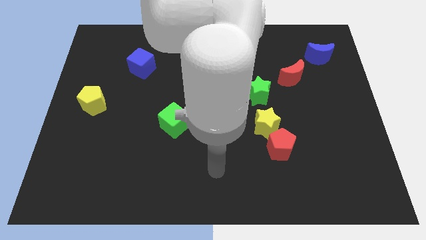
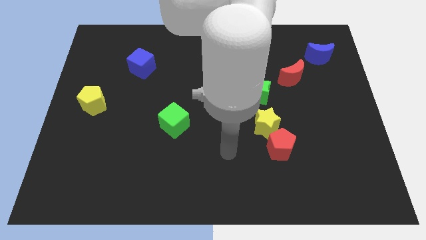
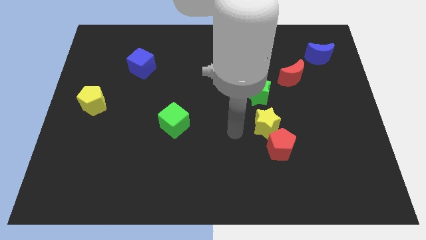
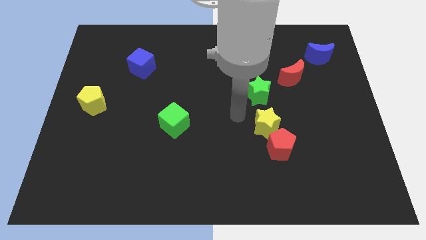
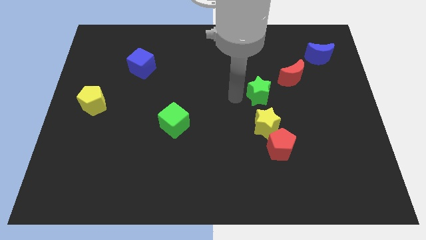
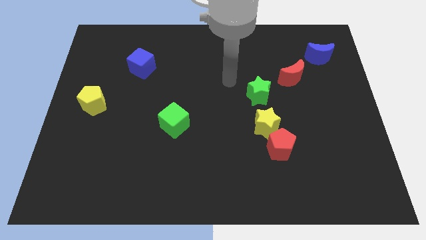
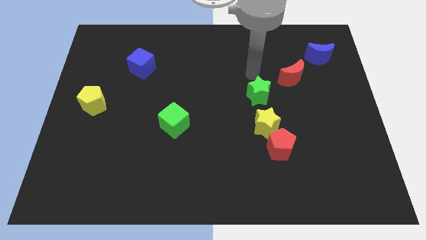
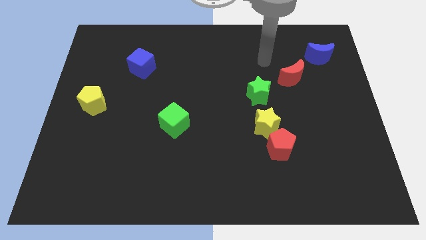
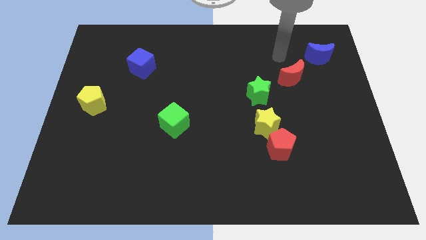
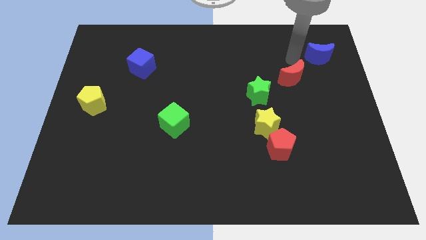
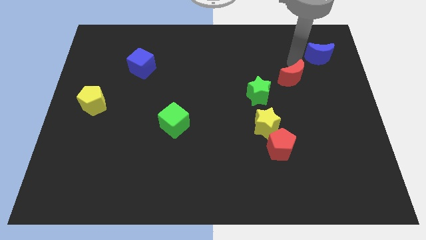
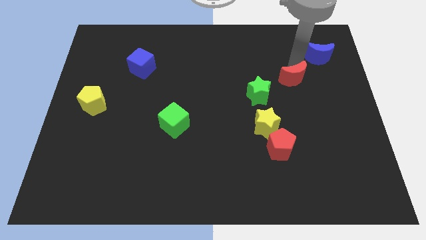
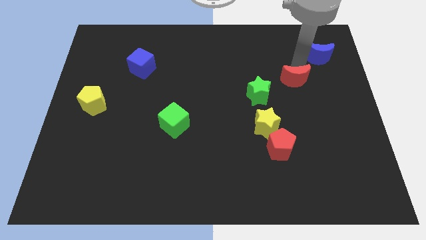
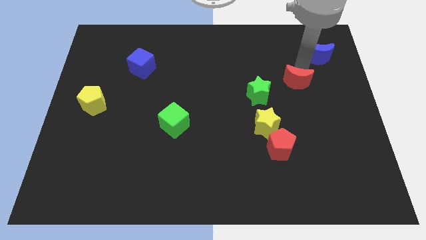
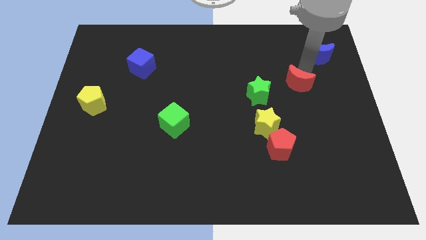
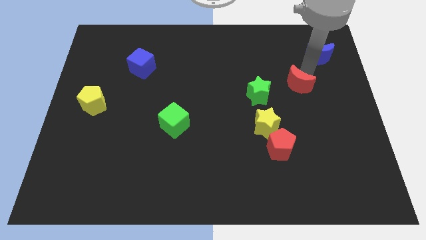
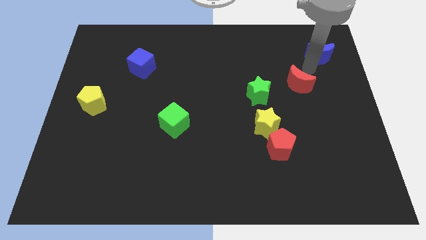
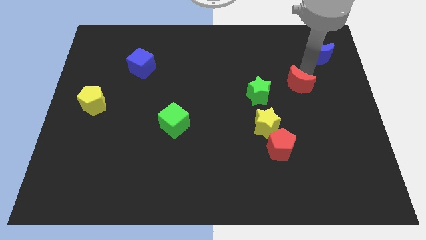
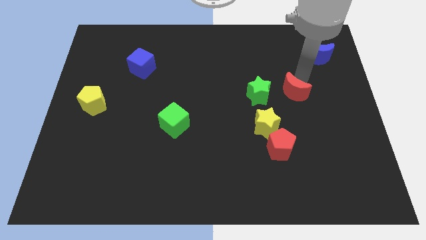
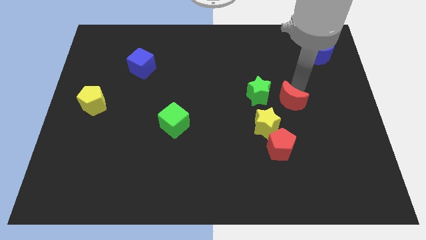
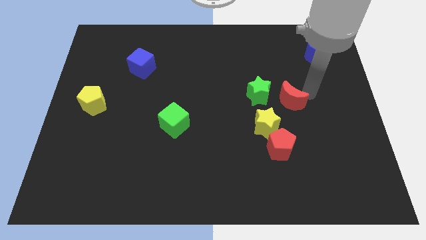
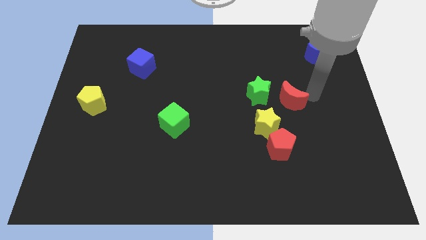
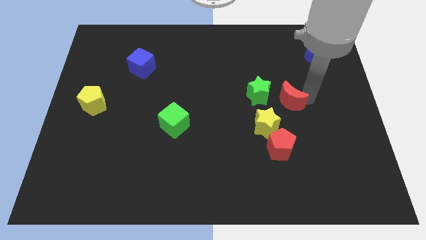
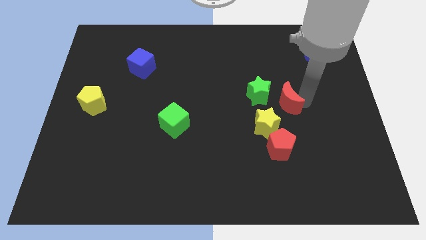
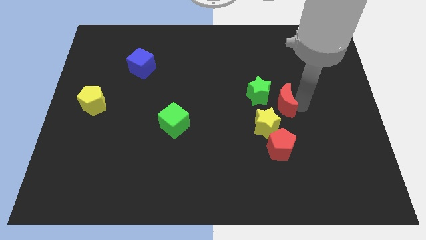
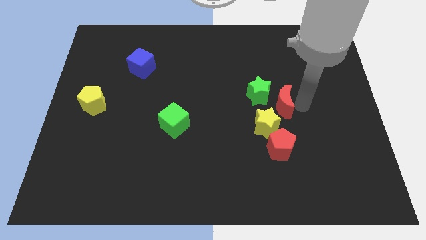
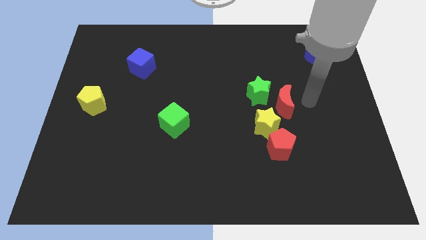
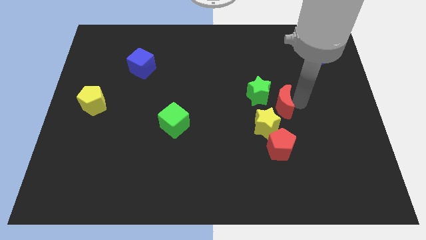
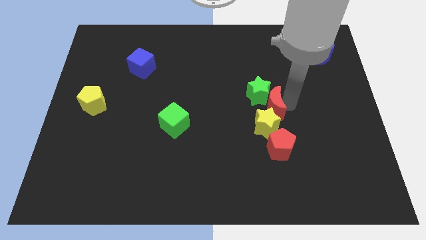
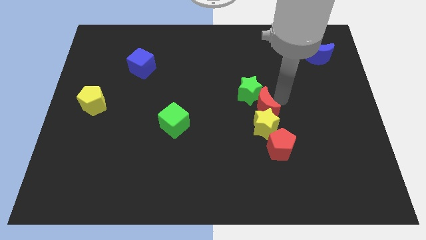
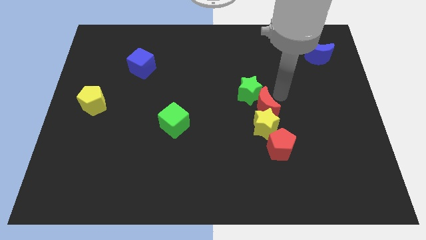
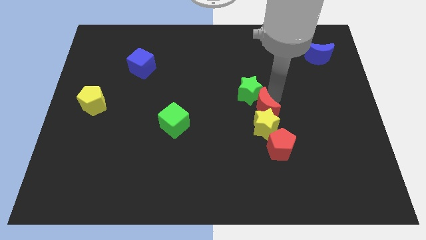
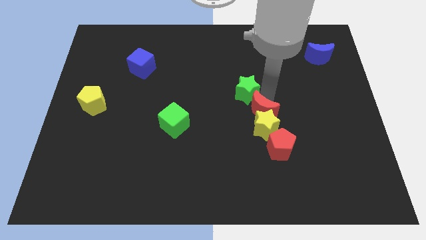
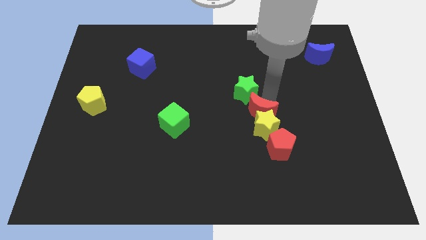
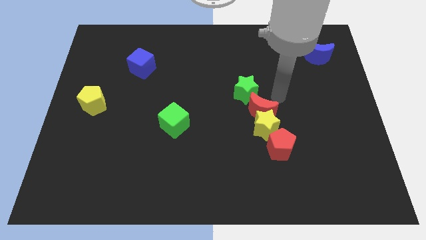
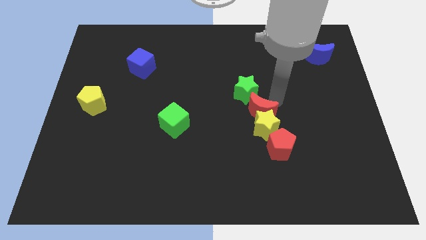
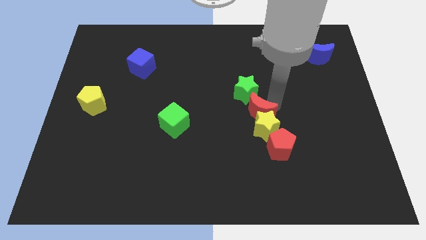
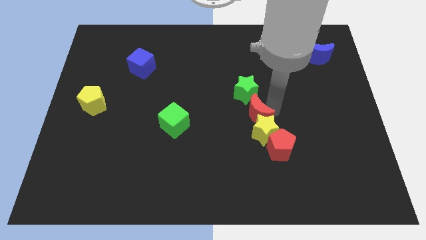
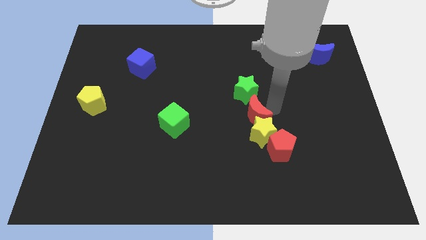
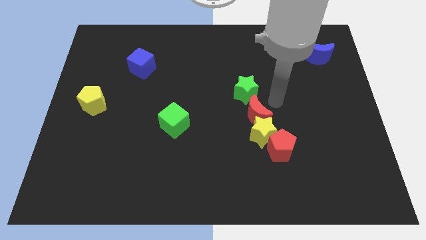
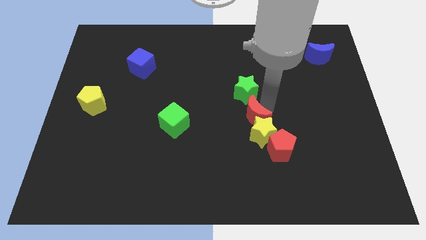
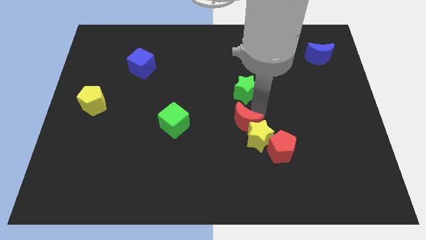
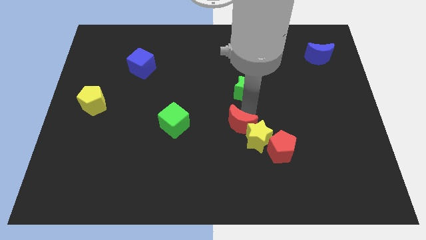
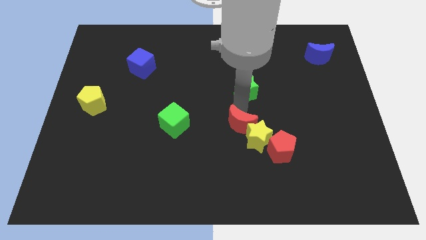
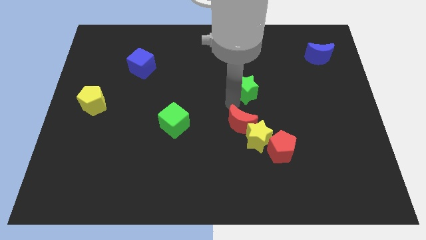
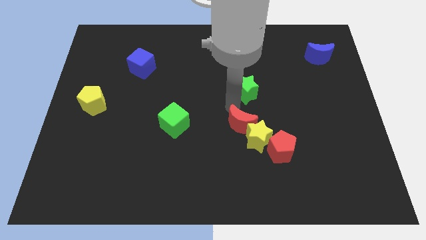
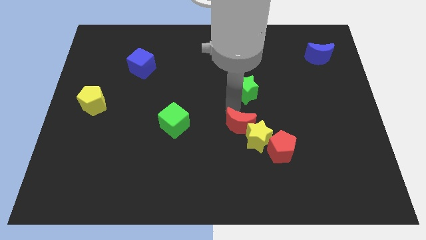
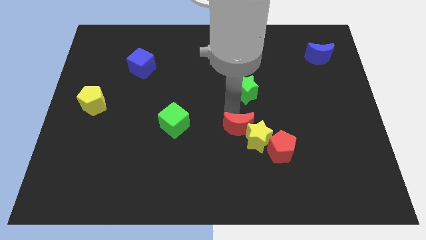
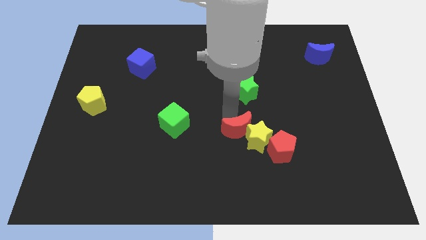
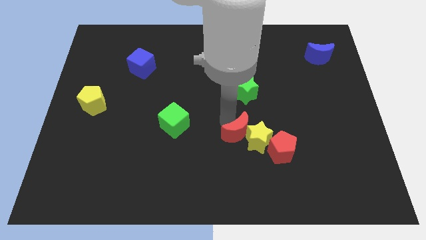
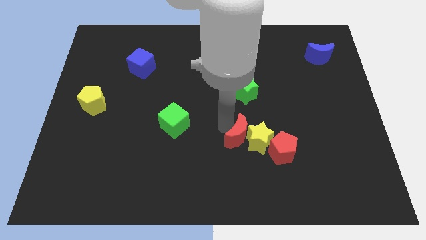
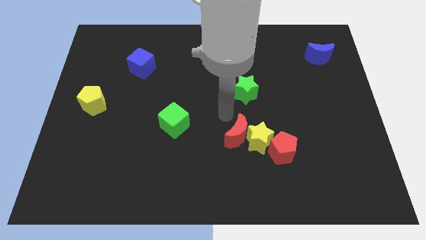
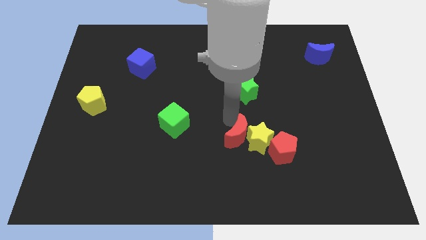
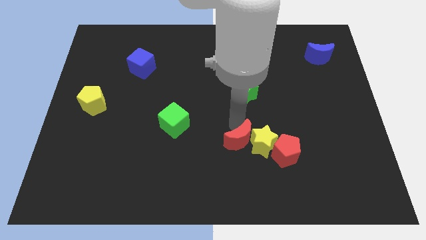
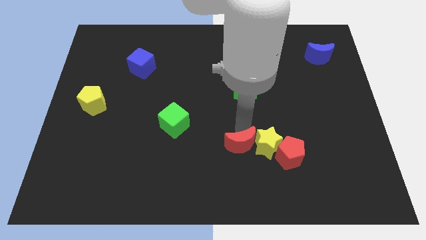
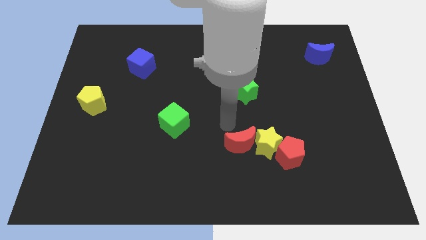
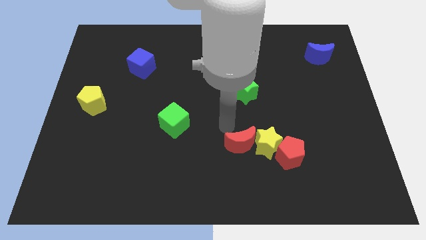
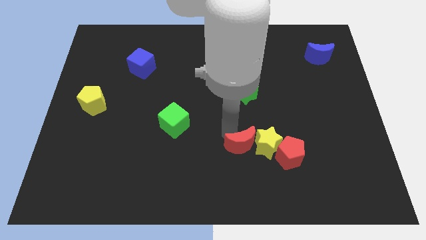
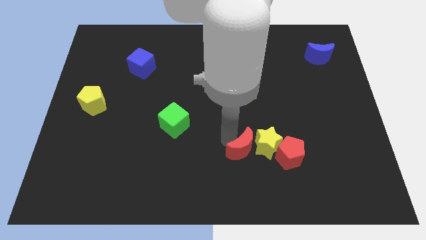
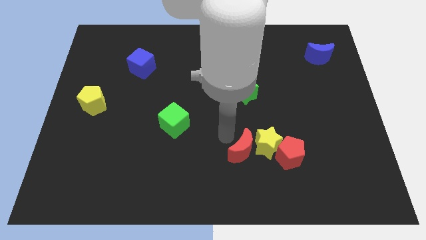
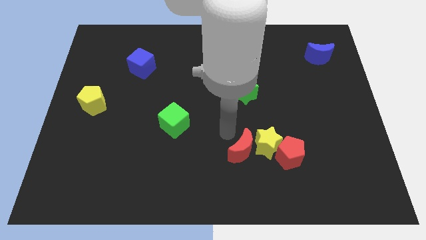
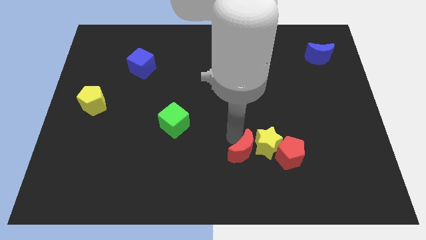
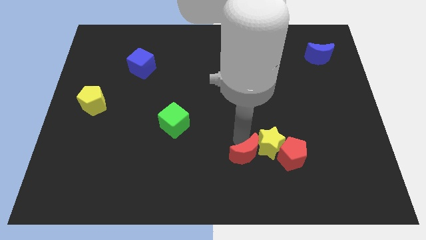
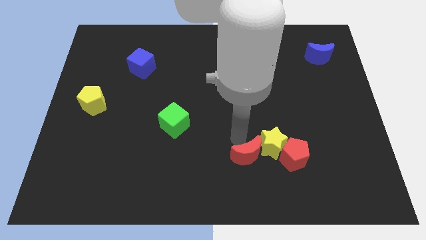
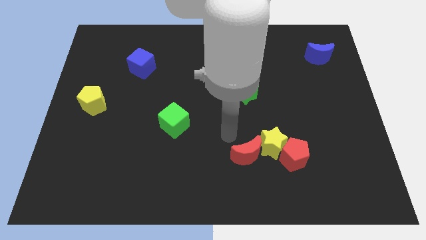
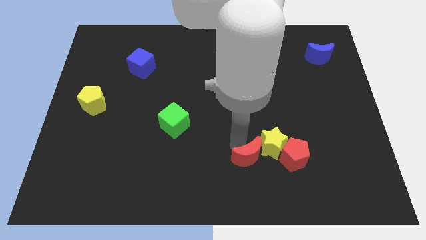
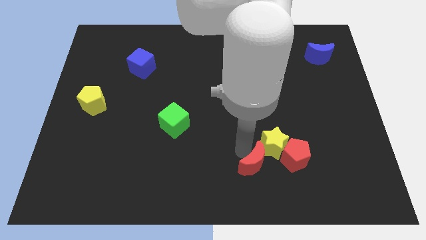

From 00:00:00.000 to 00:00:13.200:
put the red moon to the bottom left side of the red pentagon

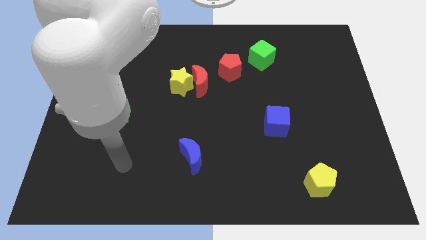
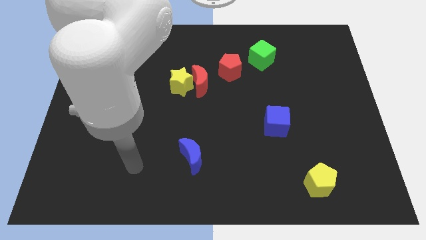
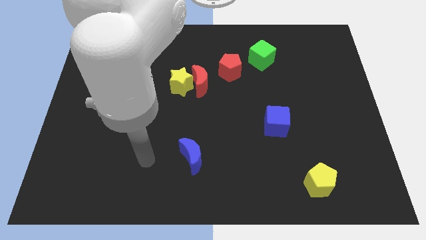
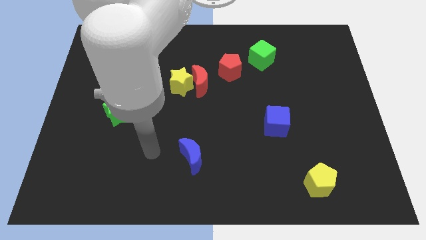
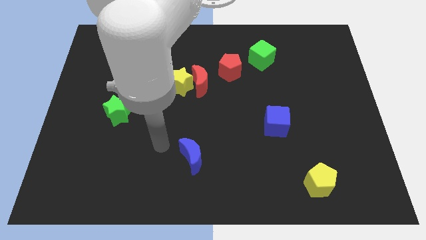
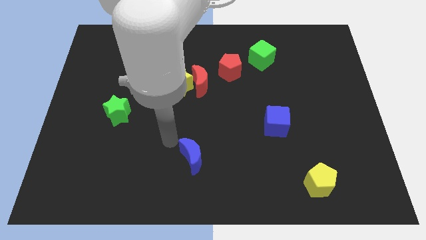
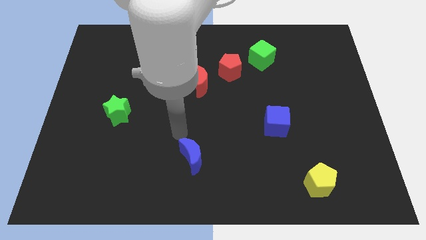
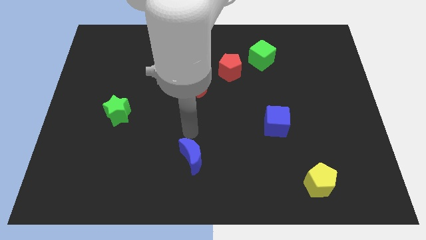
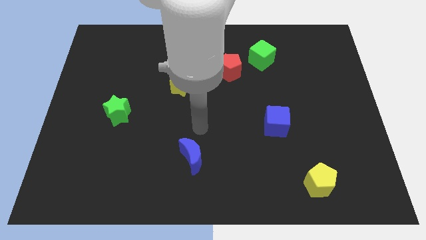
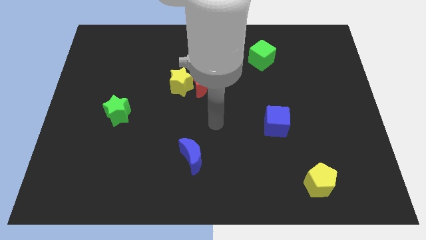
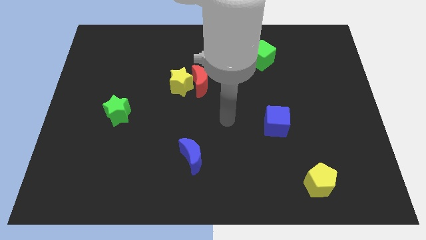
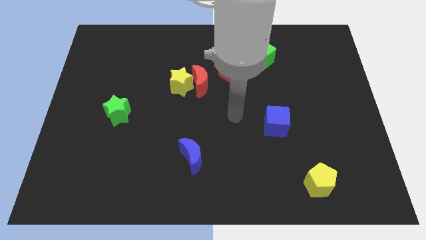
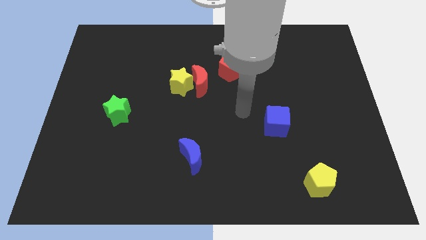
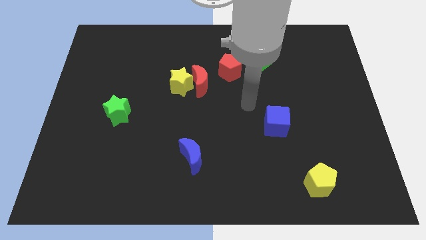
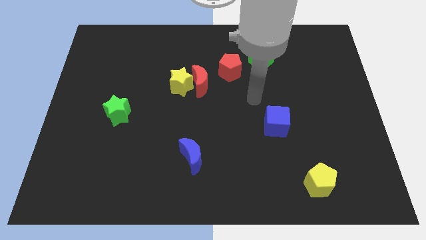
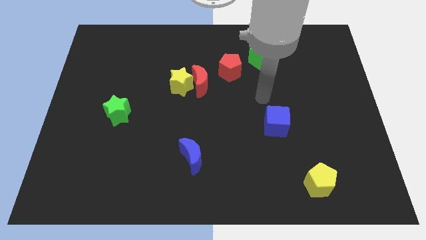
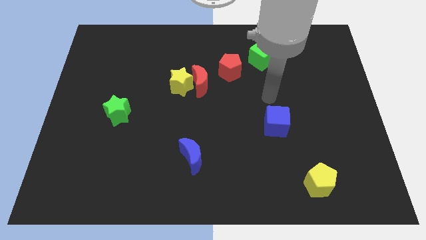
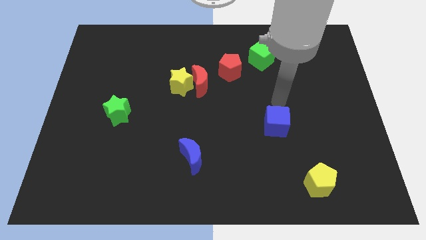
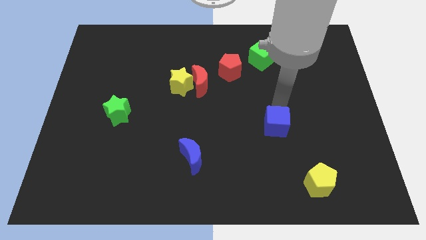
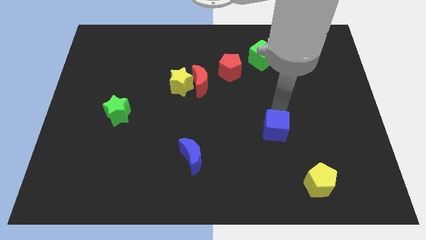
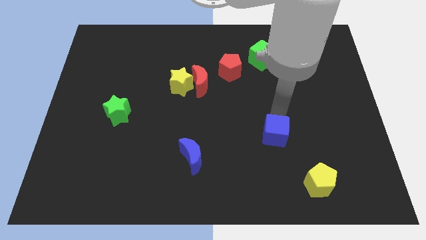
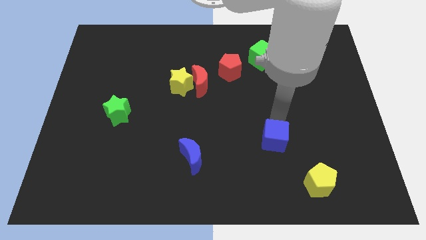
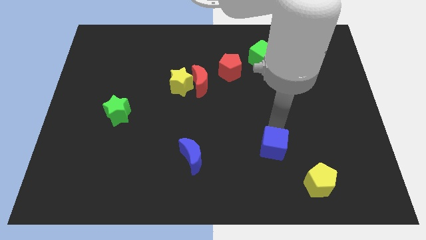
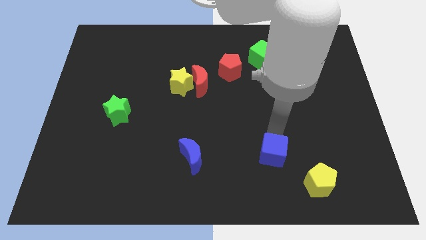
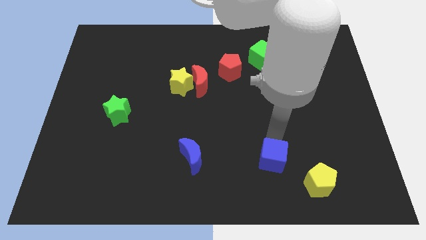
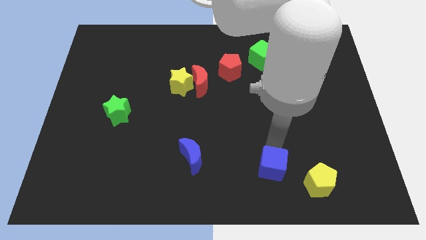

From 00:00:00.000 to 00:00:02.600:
move the blue cube to the left of the yellow pentagon
